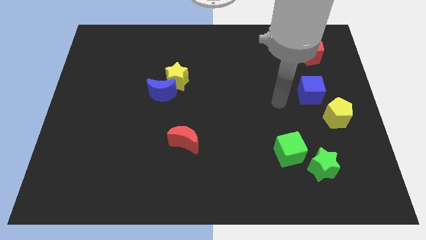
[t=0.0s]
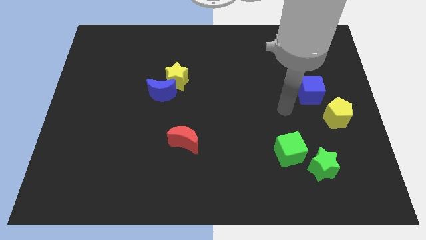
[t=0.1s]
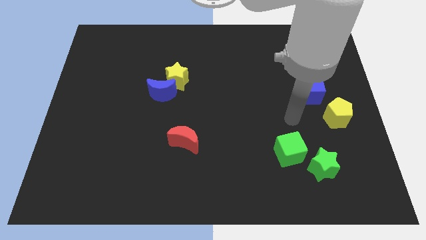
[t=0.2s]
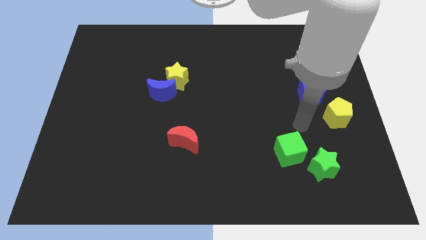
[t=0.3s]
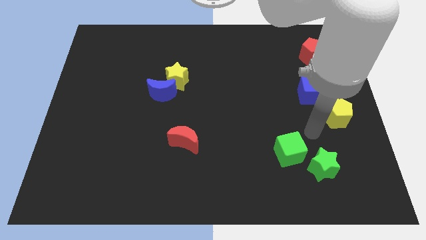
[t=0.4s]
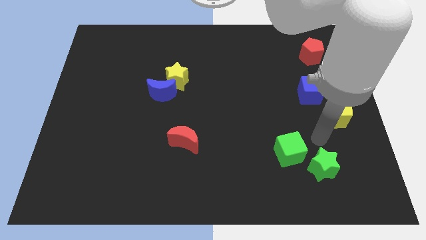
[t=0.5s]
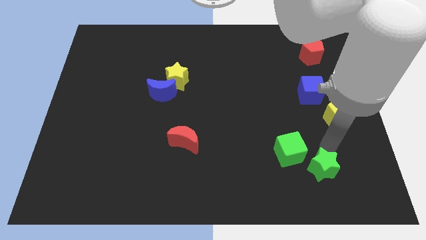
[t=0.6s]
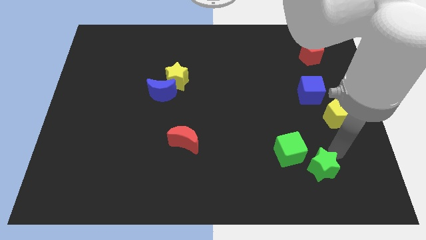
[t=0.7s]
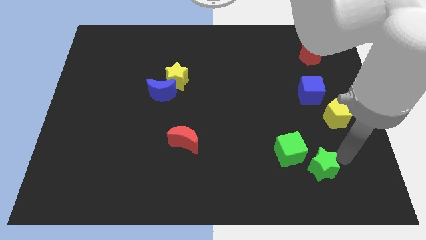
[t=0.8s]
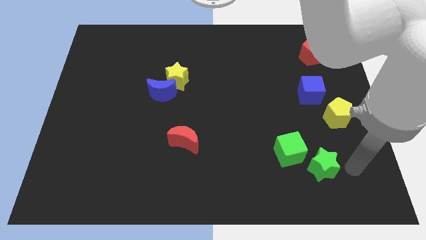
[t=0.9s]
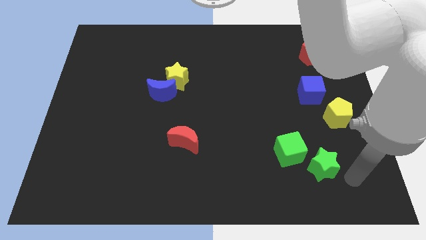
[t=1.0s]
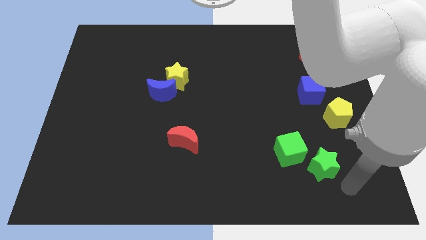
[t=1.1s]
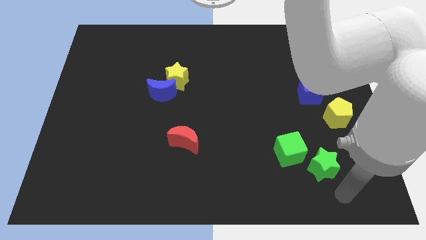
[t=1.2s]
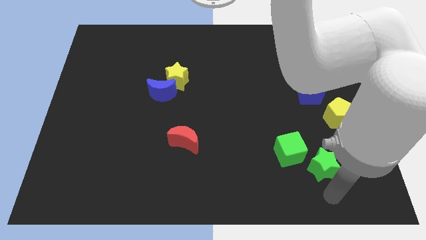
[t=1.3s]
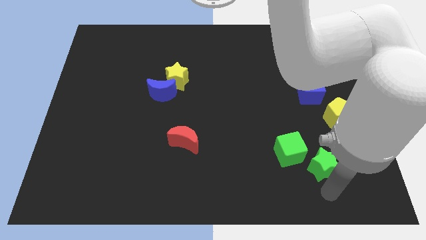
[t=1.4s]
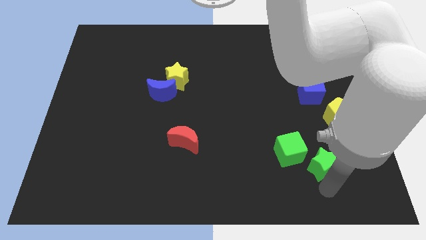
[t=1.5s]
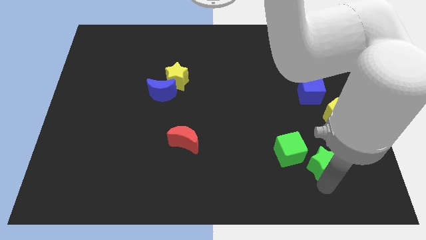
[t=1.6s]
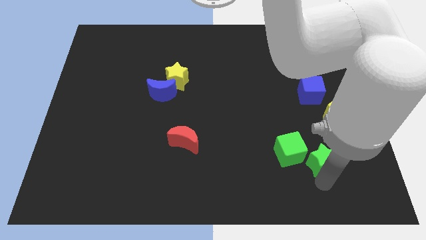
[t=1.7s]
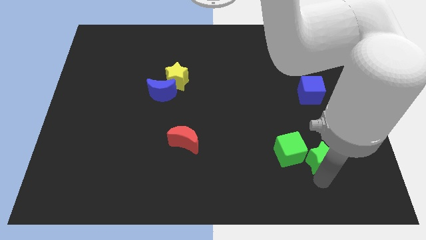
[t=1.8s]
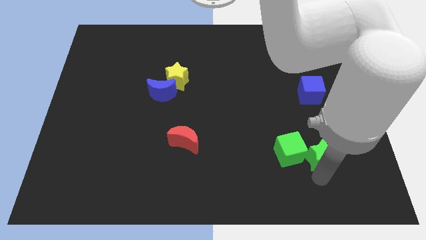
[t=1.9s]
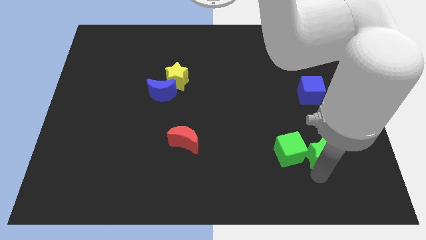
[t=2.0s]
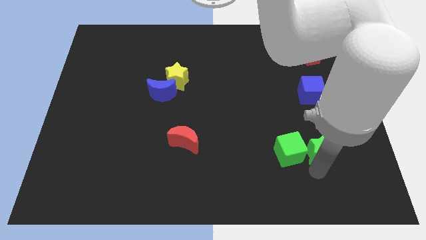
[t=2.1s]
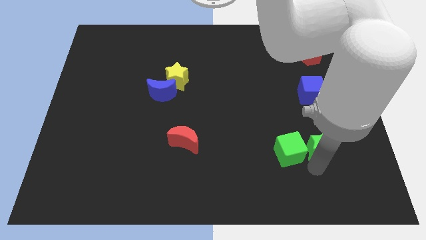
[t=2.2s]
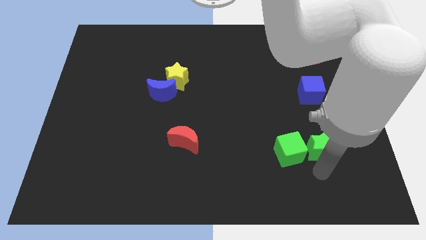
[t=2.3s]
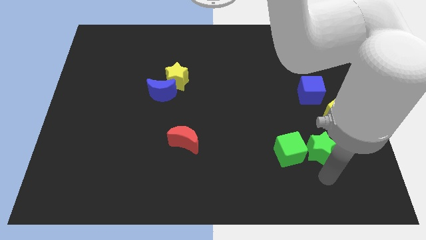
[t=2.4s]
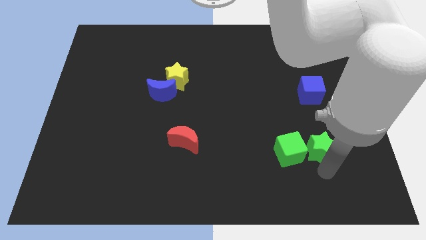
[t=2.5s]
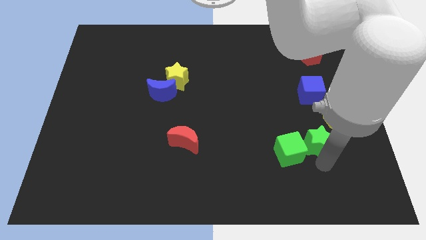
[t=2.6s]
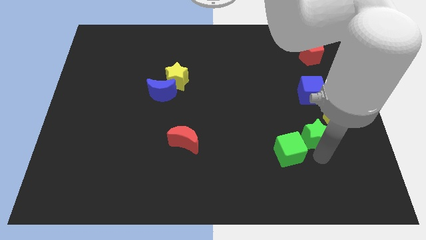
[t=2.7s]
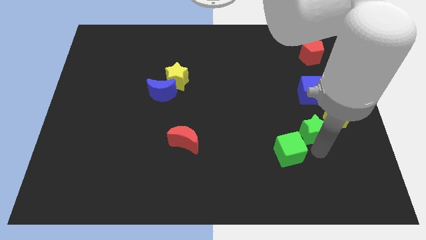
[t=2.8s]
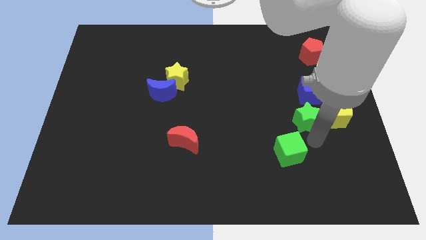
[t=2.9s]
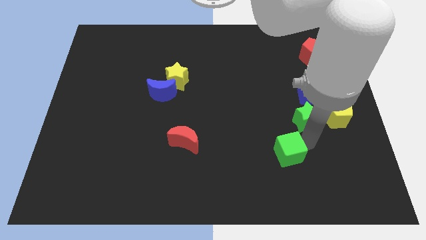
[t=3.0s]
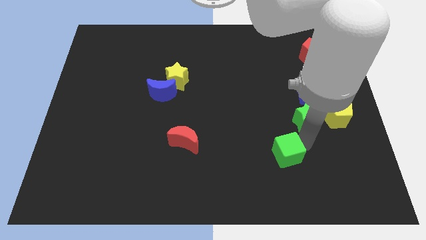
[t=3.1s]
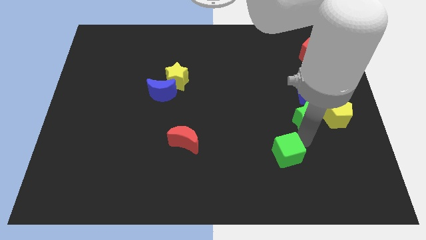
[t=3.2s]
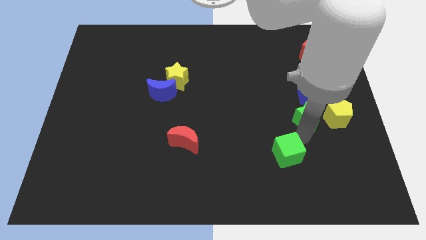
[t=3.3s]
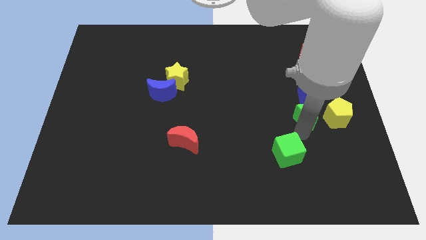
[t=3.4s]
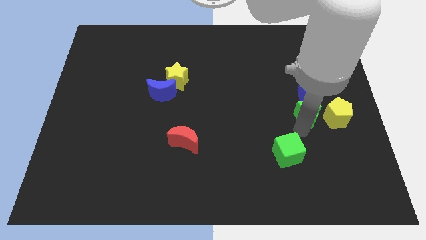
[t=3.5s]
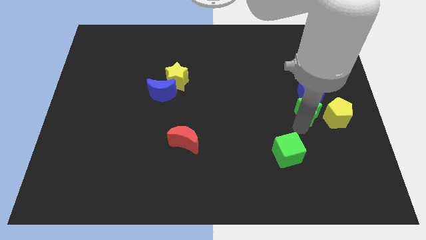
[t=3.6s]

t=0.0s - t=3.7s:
put the green star towards the blue cube

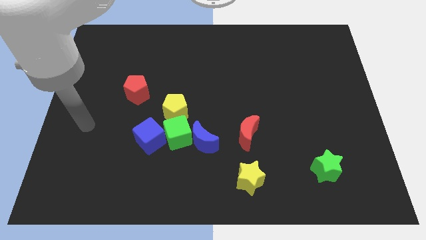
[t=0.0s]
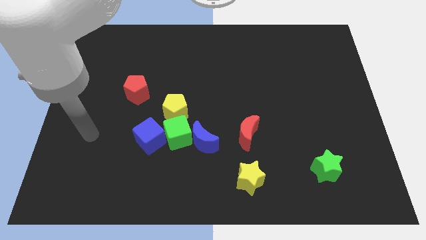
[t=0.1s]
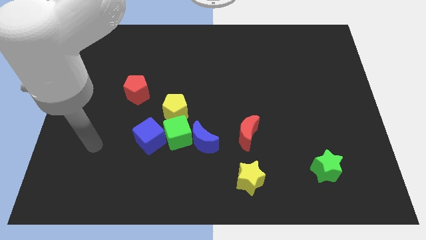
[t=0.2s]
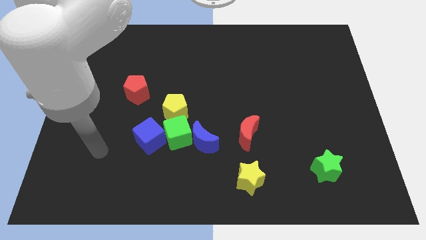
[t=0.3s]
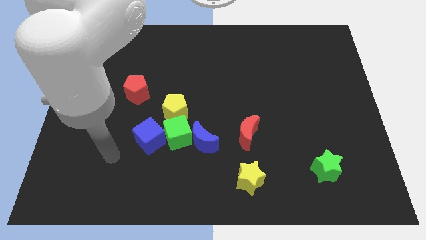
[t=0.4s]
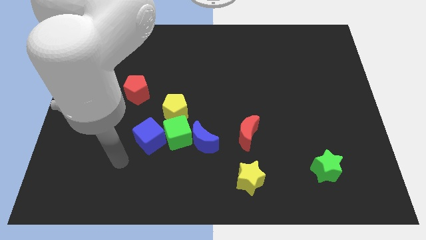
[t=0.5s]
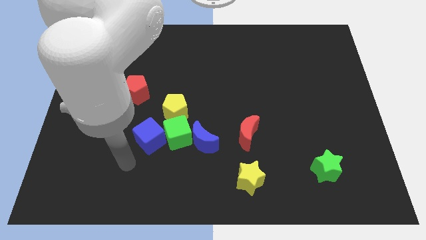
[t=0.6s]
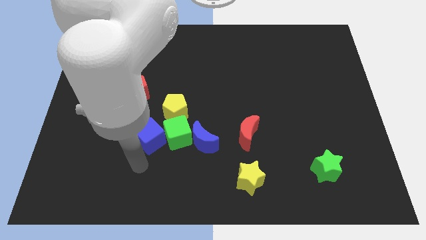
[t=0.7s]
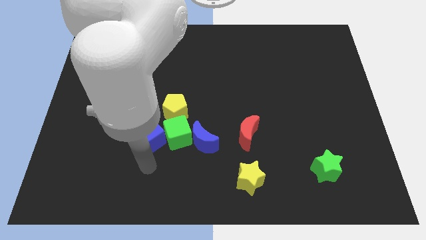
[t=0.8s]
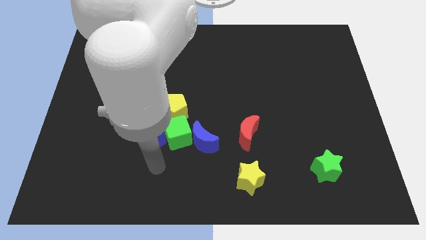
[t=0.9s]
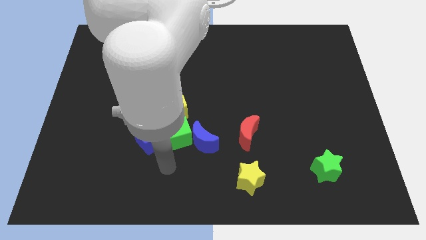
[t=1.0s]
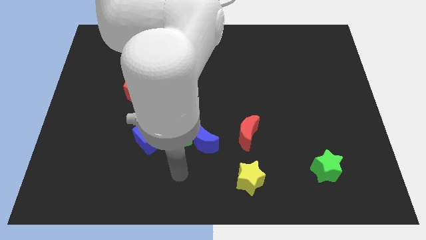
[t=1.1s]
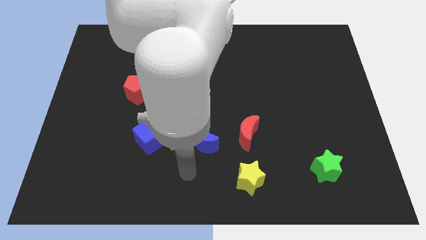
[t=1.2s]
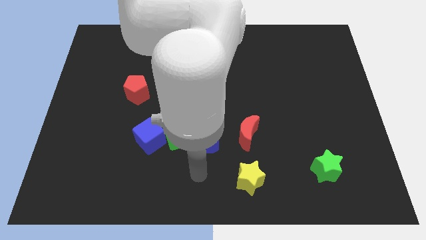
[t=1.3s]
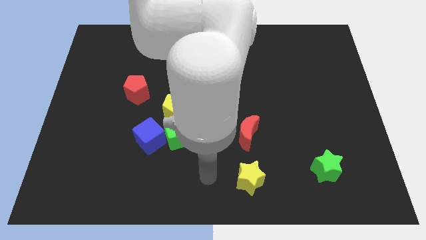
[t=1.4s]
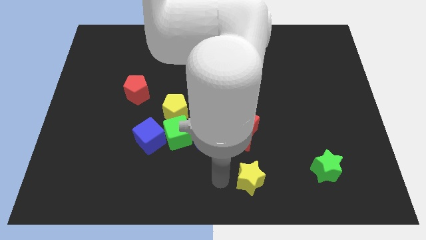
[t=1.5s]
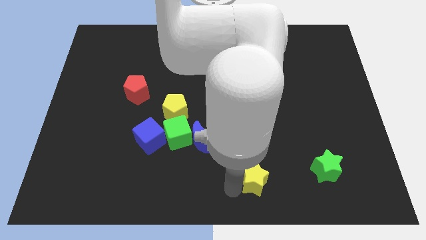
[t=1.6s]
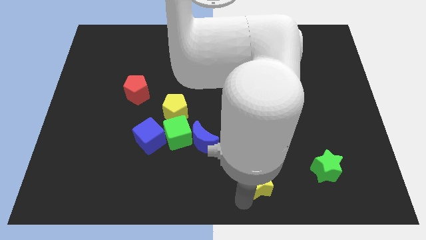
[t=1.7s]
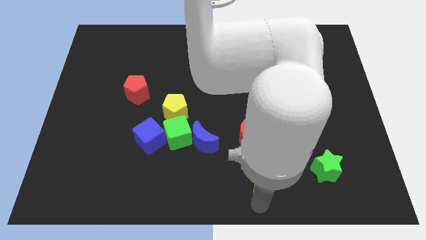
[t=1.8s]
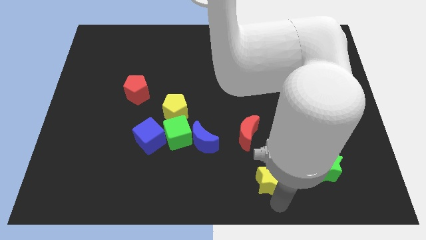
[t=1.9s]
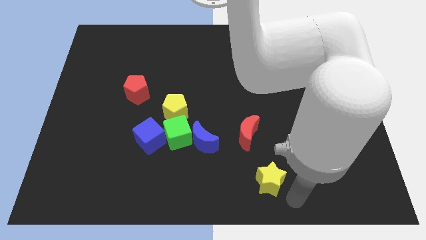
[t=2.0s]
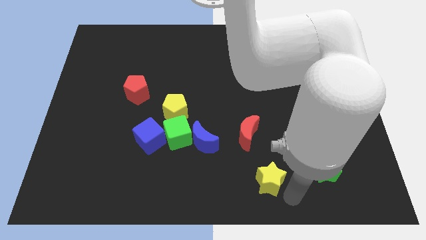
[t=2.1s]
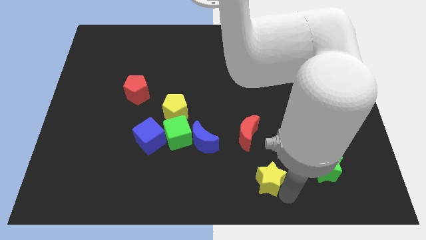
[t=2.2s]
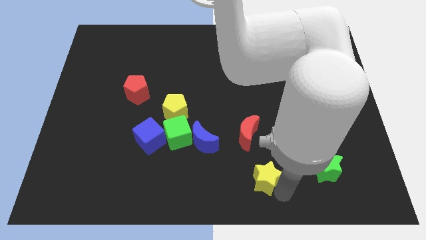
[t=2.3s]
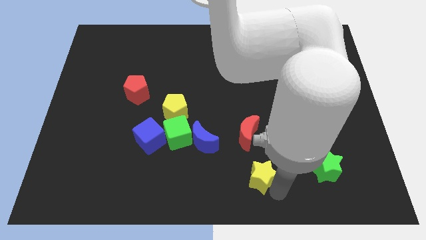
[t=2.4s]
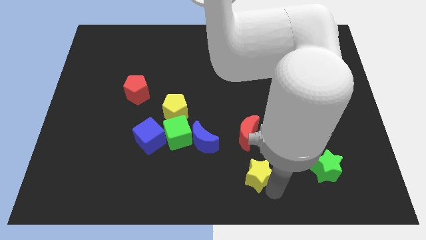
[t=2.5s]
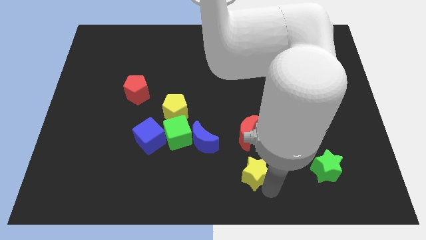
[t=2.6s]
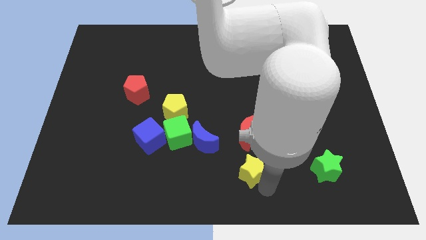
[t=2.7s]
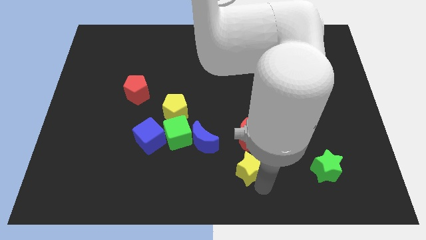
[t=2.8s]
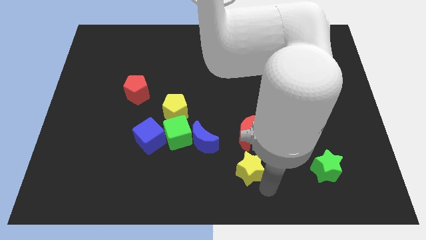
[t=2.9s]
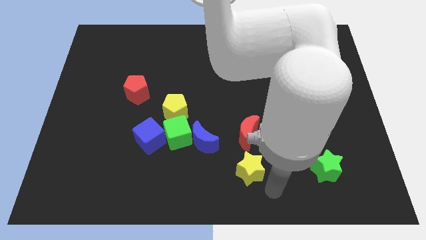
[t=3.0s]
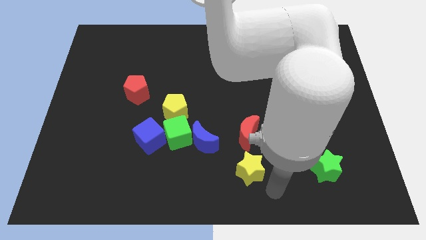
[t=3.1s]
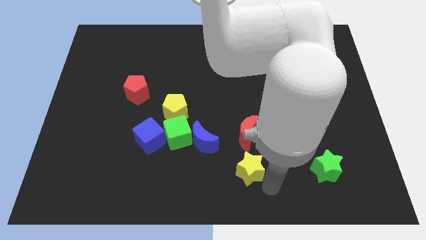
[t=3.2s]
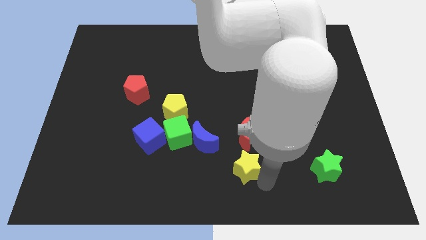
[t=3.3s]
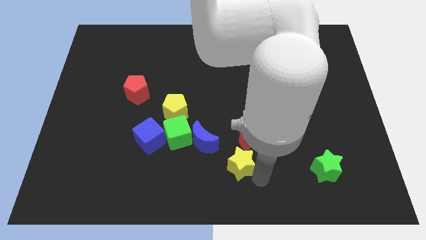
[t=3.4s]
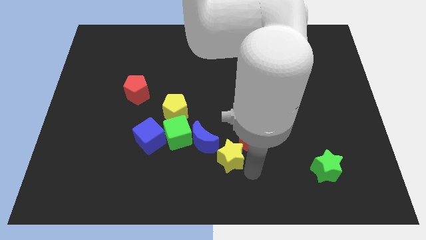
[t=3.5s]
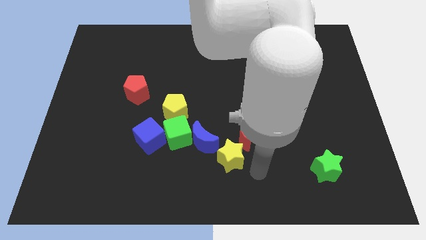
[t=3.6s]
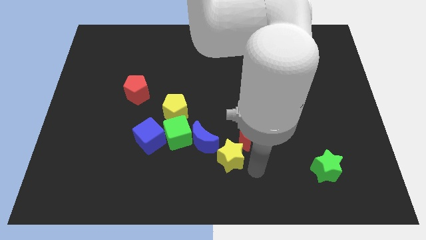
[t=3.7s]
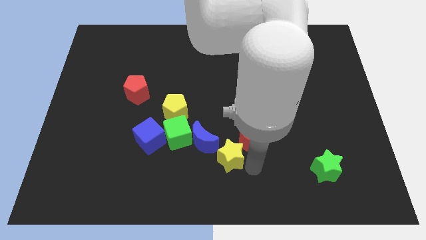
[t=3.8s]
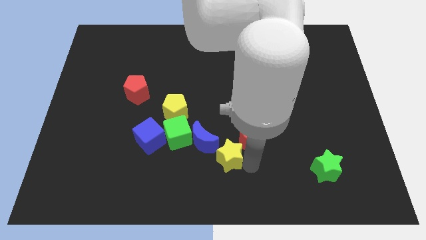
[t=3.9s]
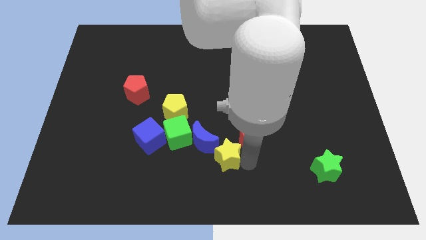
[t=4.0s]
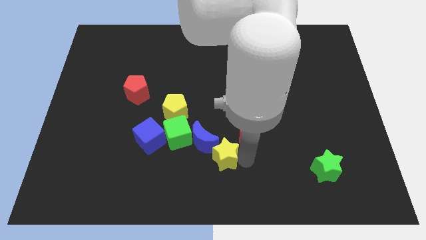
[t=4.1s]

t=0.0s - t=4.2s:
put the yellow star close to the blue moon
